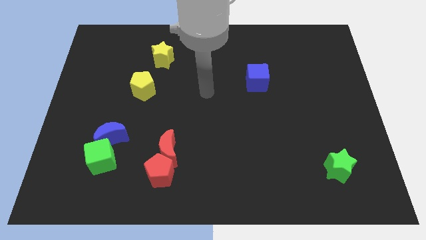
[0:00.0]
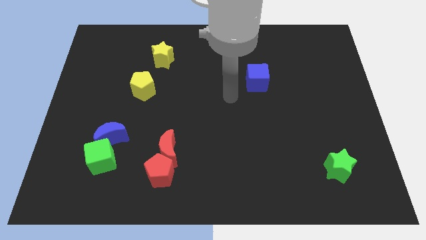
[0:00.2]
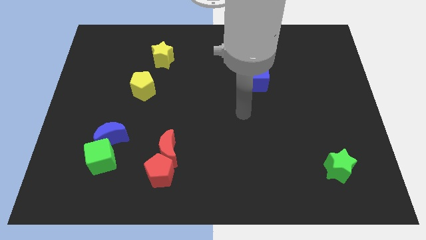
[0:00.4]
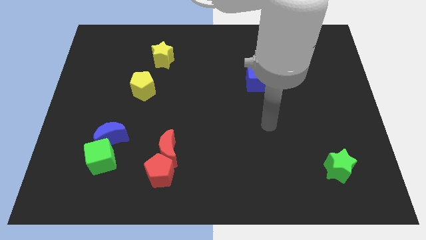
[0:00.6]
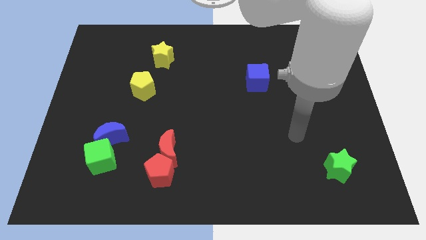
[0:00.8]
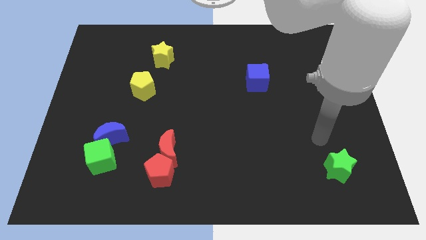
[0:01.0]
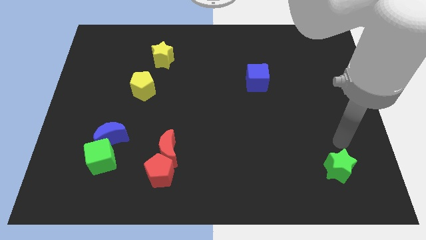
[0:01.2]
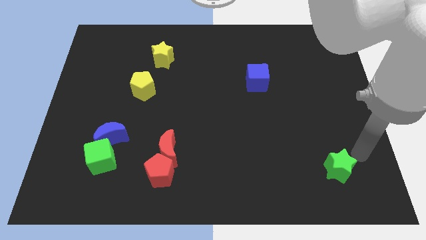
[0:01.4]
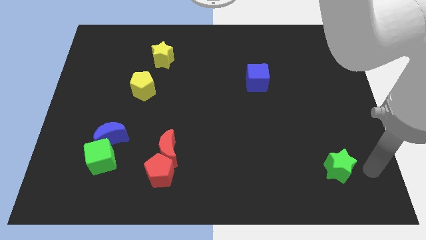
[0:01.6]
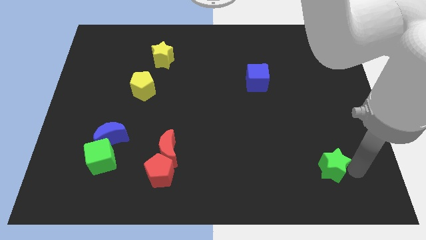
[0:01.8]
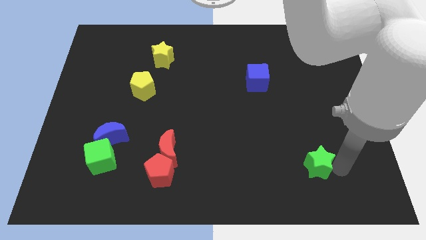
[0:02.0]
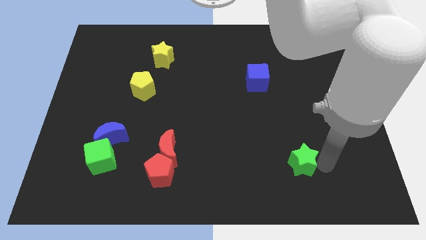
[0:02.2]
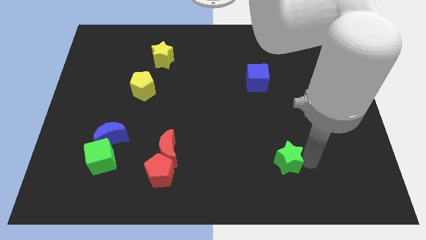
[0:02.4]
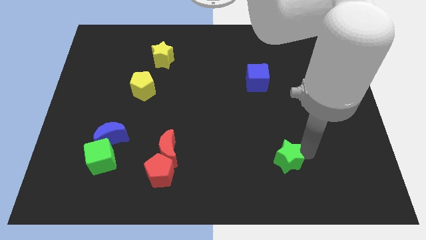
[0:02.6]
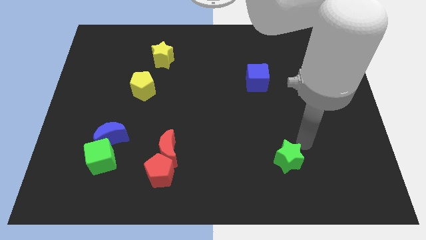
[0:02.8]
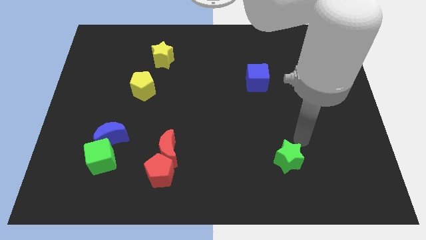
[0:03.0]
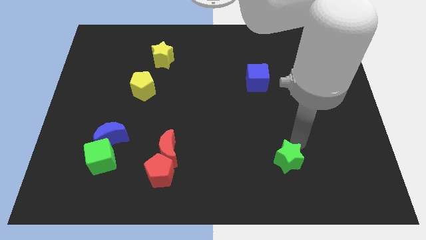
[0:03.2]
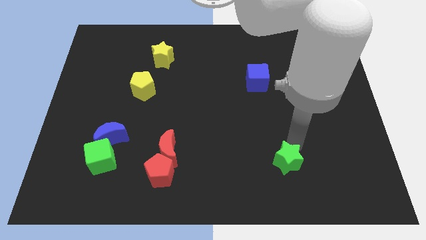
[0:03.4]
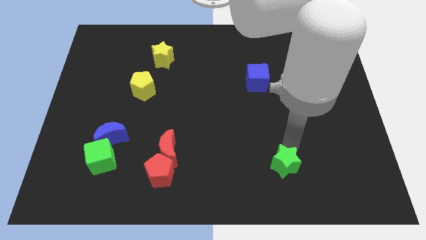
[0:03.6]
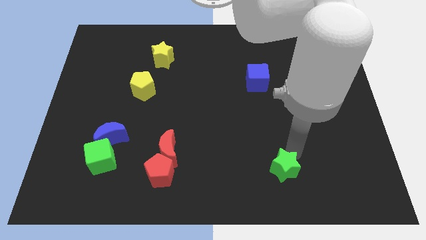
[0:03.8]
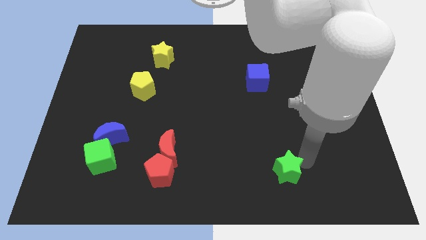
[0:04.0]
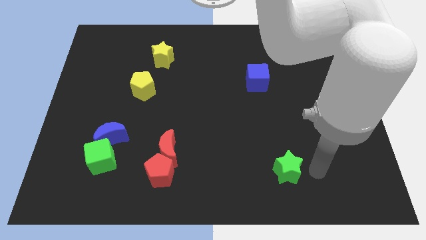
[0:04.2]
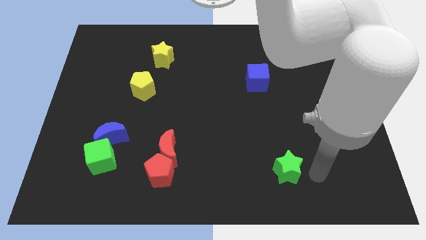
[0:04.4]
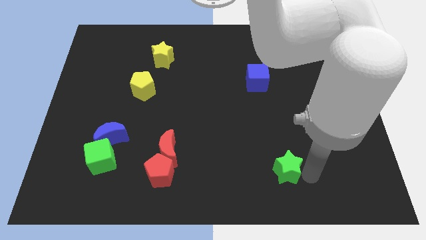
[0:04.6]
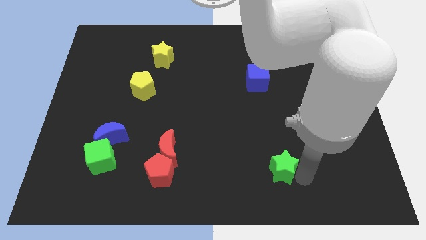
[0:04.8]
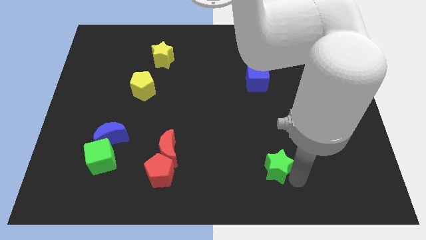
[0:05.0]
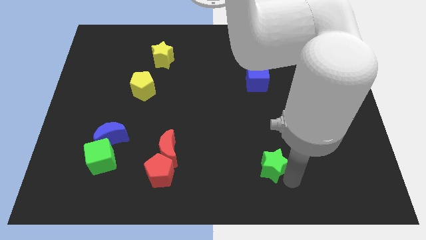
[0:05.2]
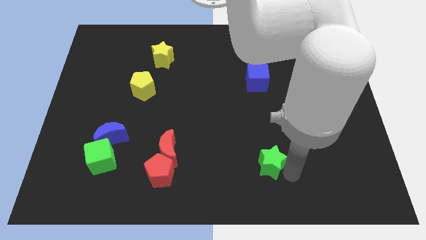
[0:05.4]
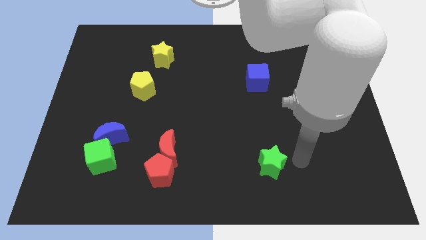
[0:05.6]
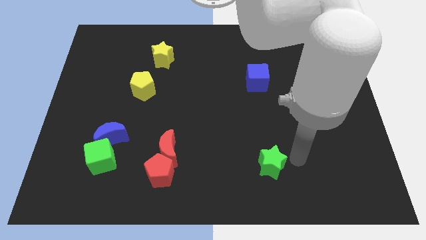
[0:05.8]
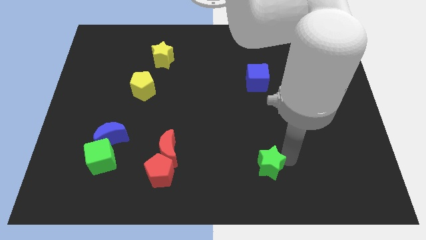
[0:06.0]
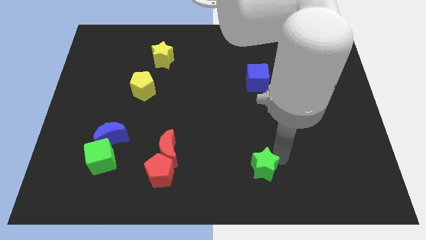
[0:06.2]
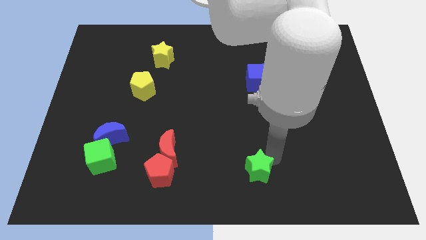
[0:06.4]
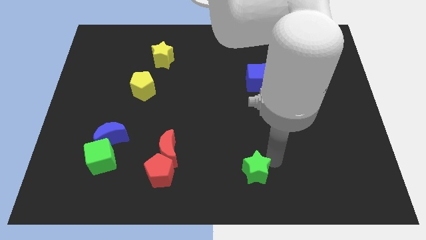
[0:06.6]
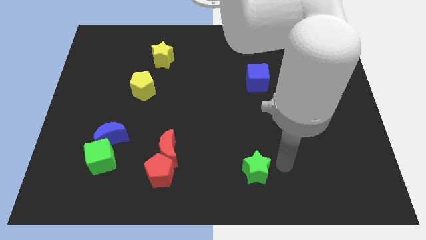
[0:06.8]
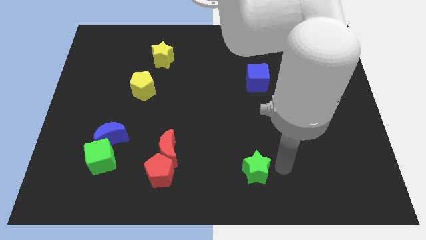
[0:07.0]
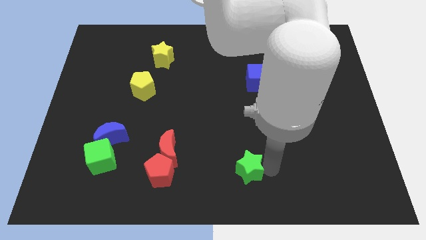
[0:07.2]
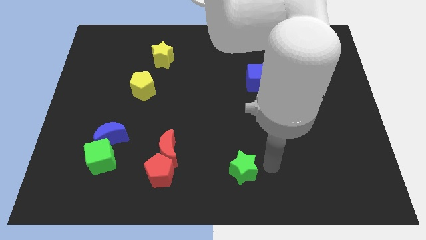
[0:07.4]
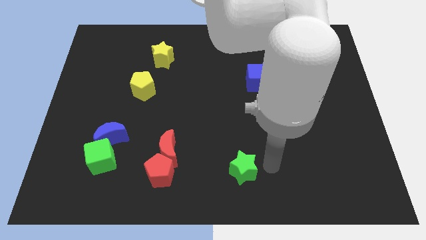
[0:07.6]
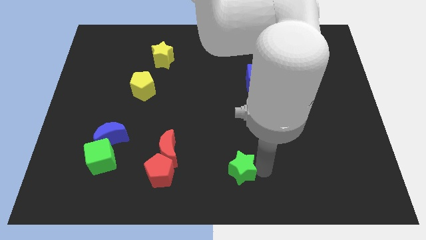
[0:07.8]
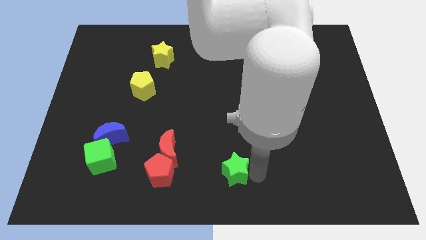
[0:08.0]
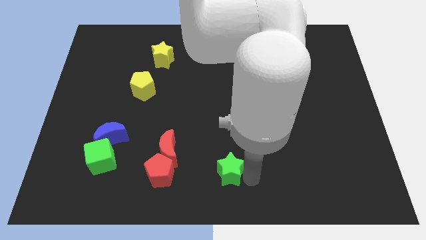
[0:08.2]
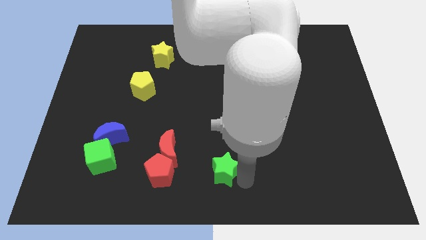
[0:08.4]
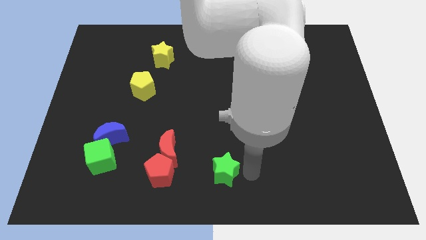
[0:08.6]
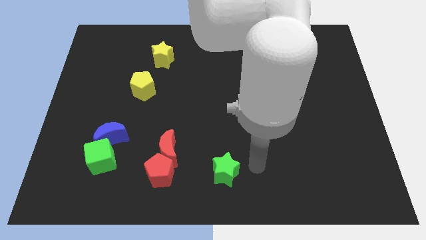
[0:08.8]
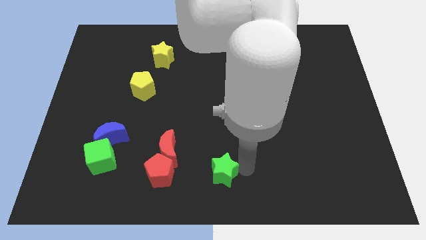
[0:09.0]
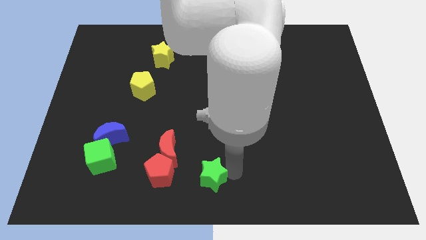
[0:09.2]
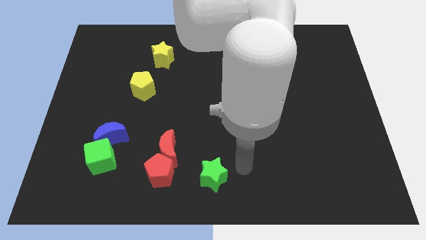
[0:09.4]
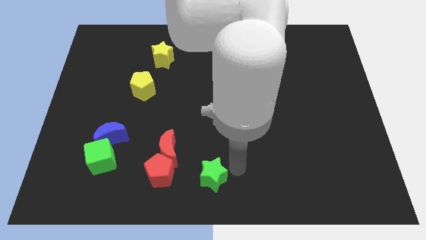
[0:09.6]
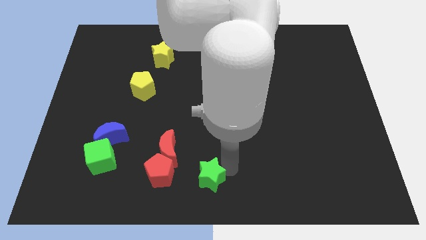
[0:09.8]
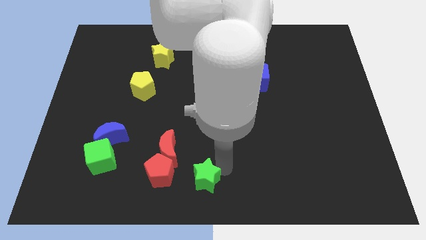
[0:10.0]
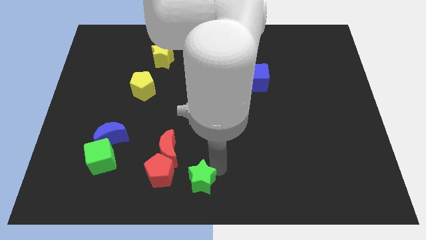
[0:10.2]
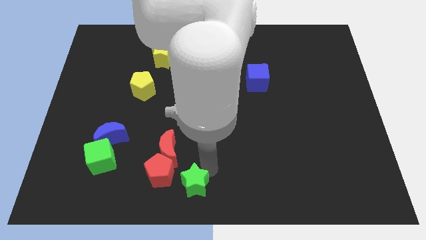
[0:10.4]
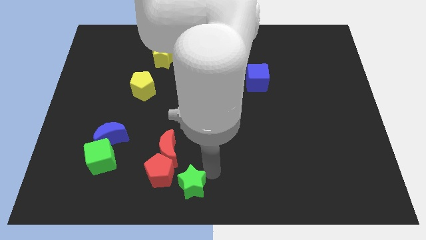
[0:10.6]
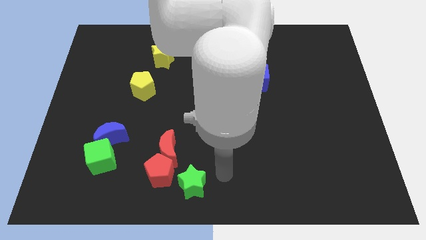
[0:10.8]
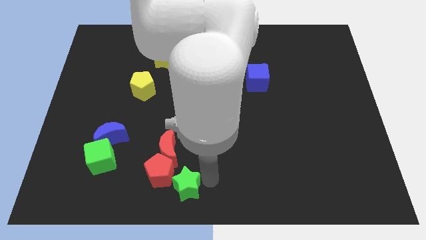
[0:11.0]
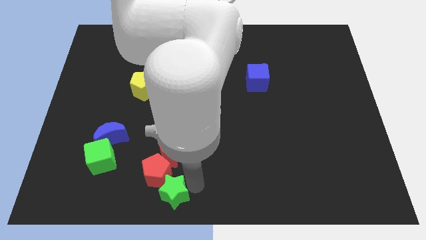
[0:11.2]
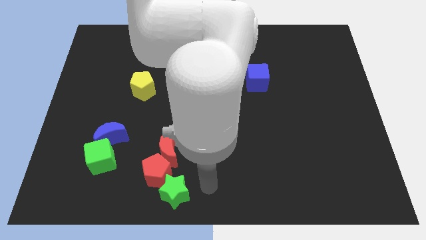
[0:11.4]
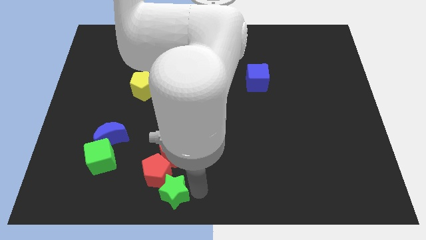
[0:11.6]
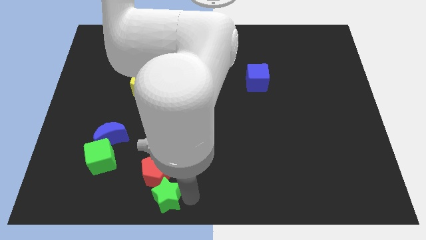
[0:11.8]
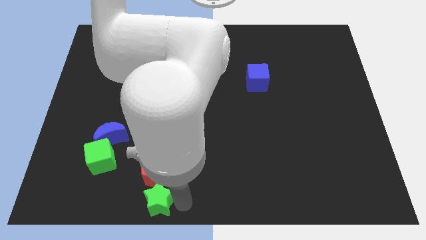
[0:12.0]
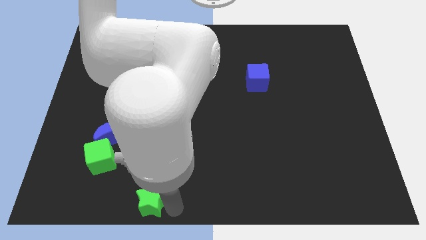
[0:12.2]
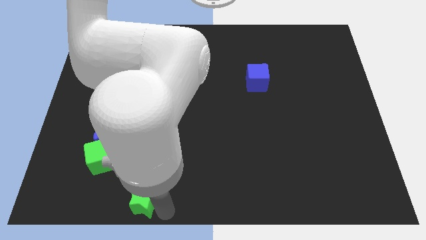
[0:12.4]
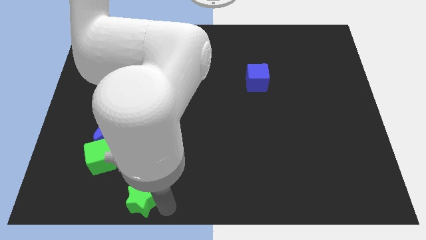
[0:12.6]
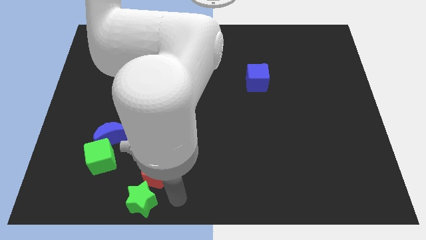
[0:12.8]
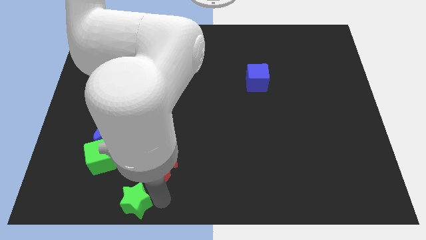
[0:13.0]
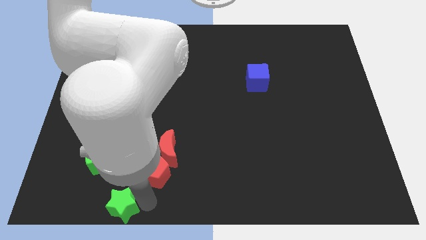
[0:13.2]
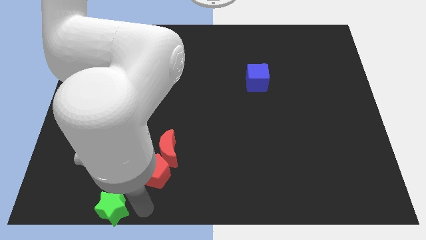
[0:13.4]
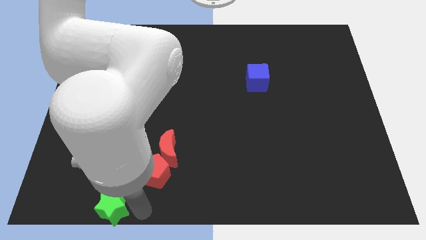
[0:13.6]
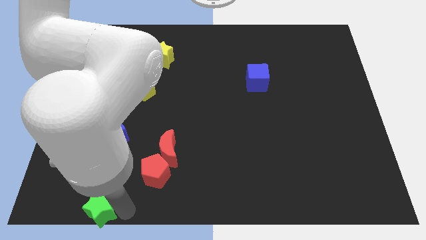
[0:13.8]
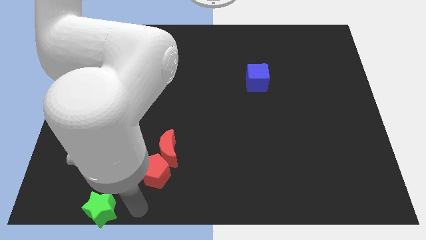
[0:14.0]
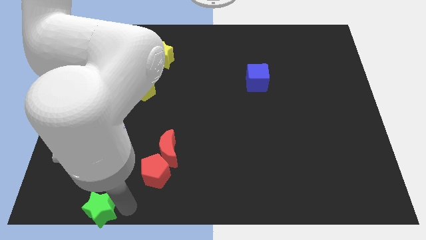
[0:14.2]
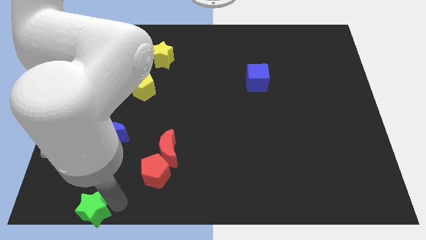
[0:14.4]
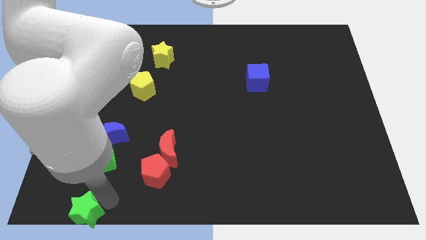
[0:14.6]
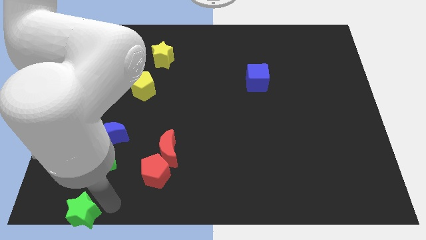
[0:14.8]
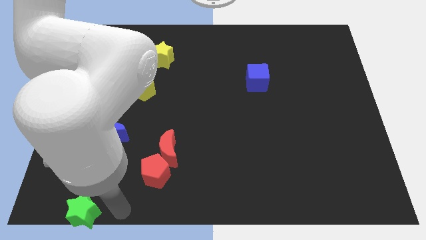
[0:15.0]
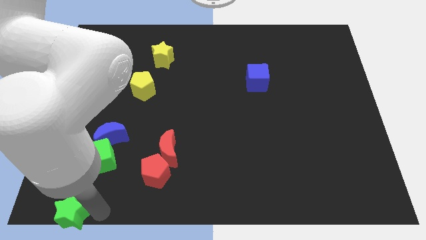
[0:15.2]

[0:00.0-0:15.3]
put the green star to the bottom left corner
